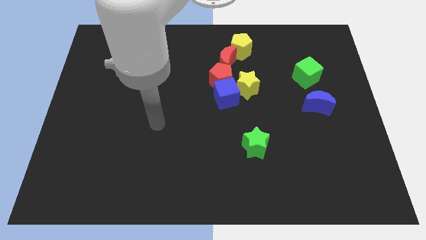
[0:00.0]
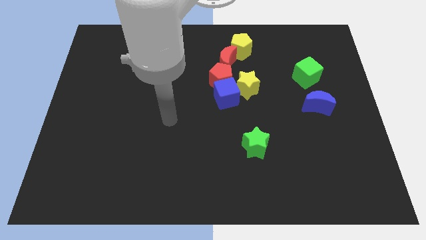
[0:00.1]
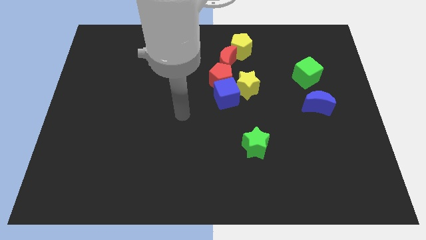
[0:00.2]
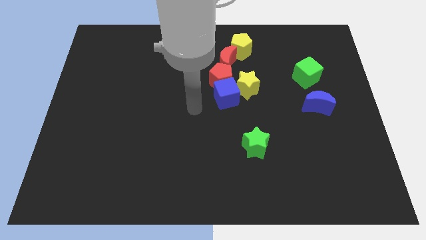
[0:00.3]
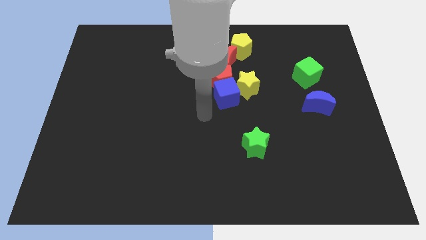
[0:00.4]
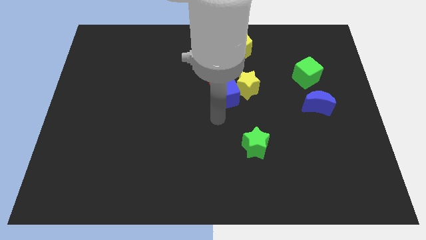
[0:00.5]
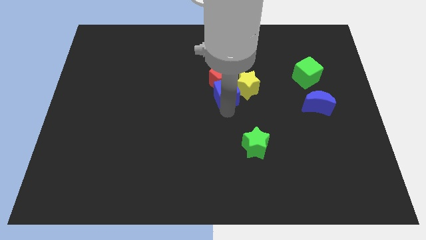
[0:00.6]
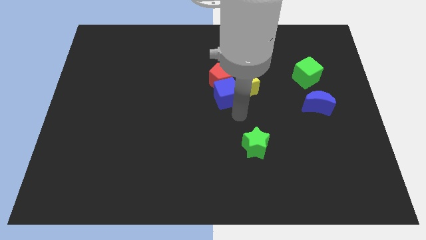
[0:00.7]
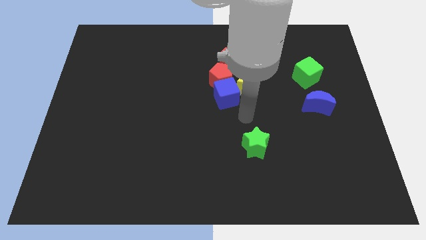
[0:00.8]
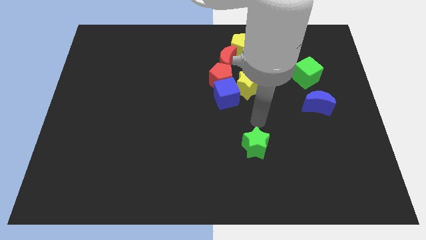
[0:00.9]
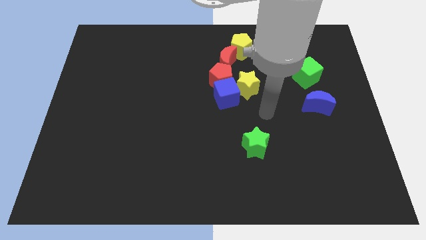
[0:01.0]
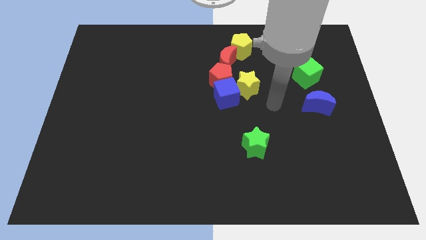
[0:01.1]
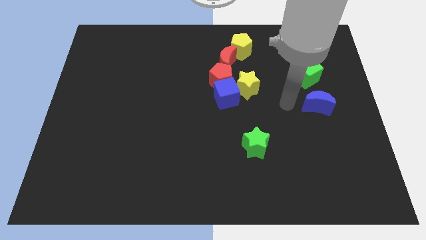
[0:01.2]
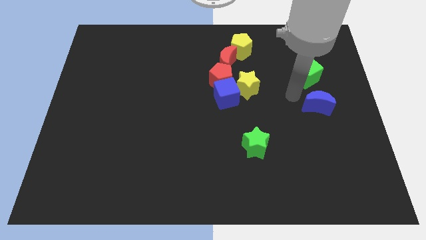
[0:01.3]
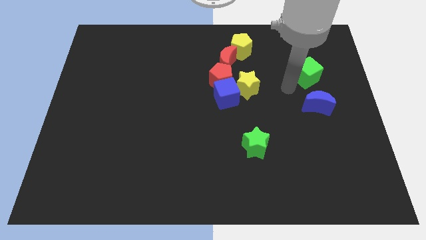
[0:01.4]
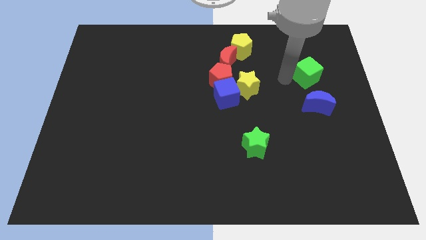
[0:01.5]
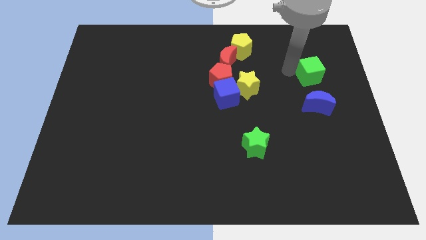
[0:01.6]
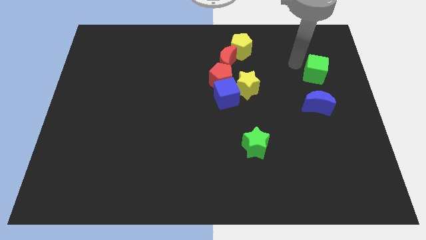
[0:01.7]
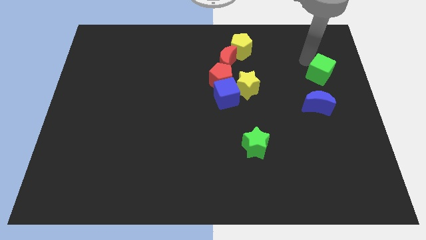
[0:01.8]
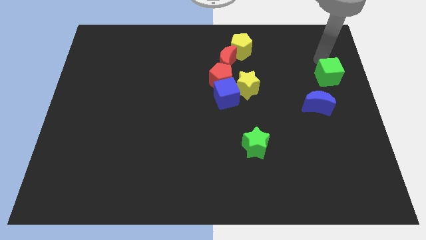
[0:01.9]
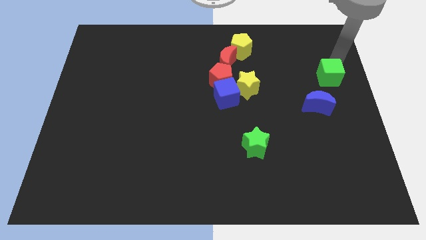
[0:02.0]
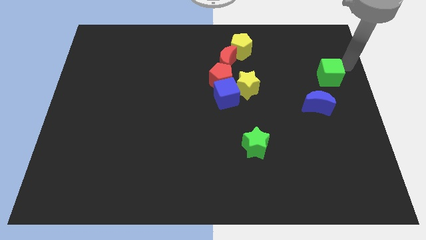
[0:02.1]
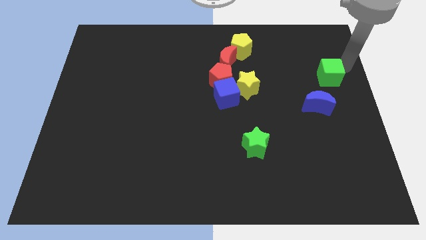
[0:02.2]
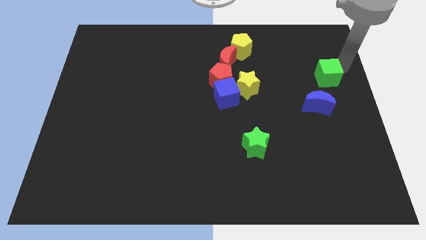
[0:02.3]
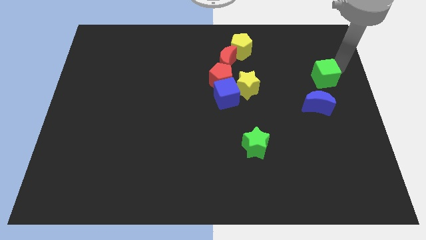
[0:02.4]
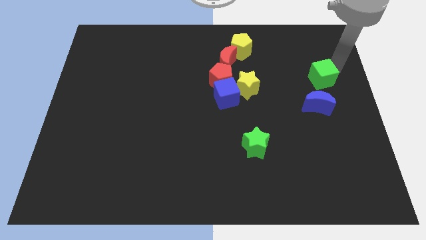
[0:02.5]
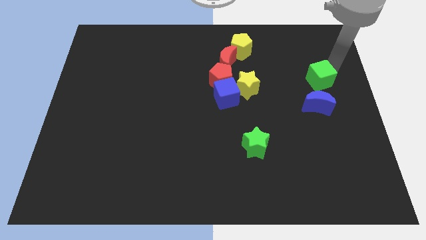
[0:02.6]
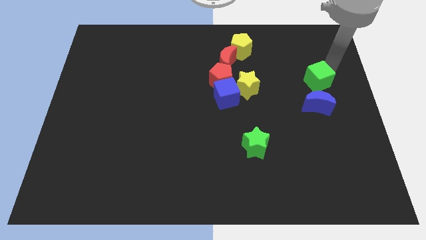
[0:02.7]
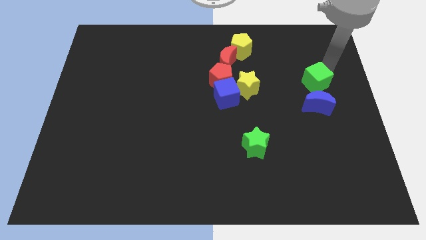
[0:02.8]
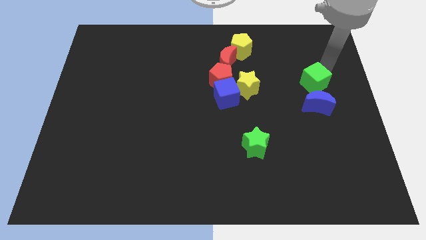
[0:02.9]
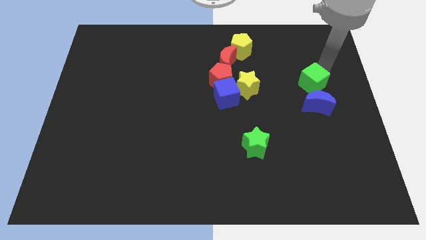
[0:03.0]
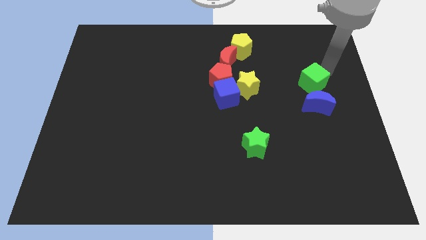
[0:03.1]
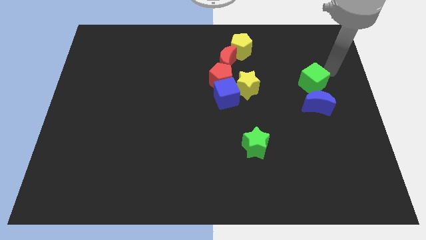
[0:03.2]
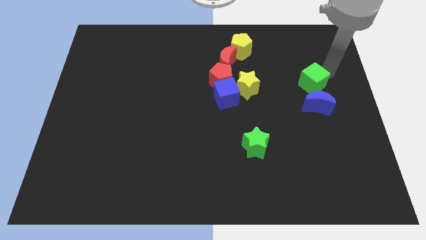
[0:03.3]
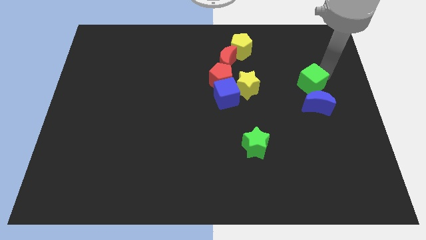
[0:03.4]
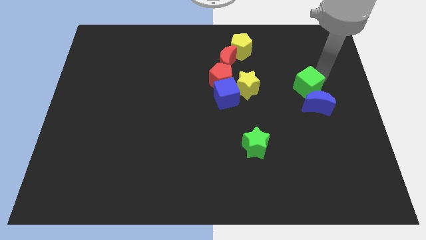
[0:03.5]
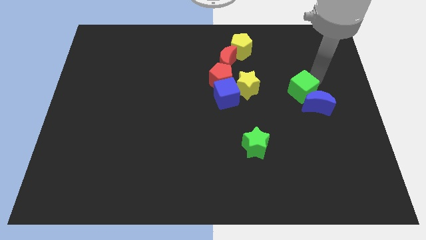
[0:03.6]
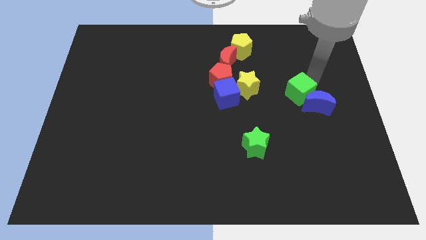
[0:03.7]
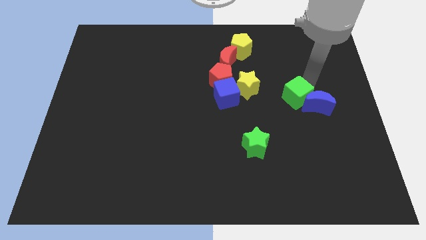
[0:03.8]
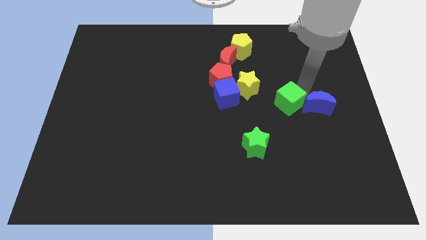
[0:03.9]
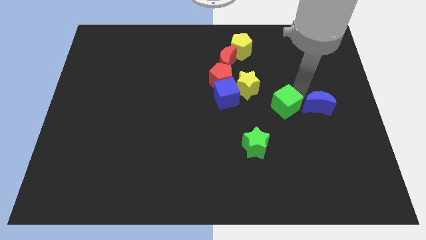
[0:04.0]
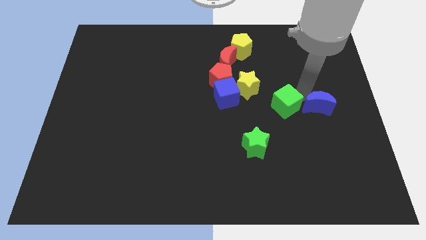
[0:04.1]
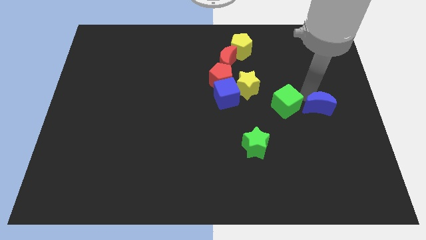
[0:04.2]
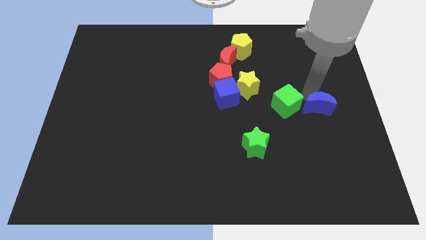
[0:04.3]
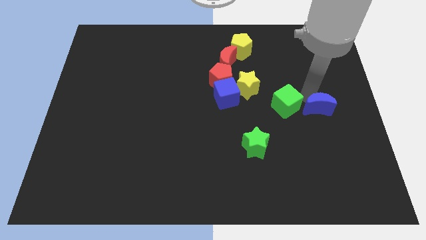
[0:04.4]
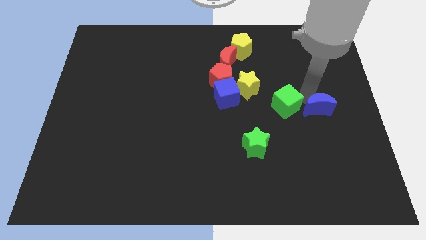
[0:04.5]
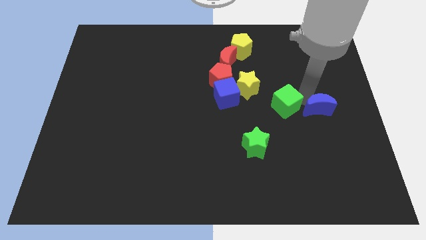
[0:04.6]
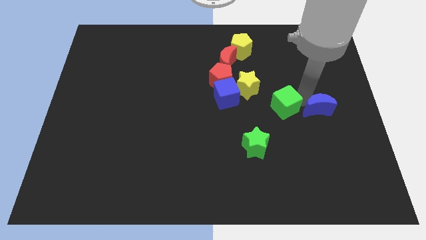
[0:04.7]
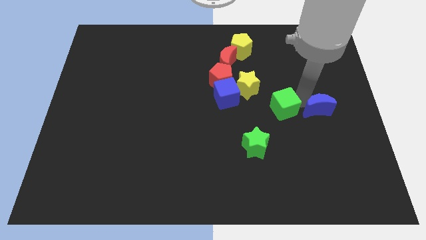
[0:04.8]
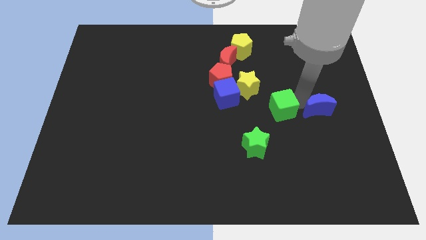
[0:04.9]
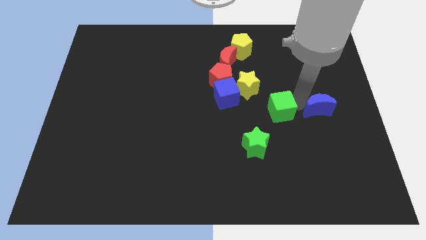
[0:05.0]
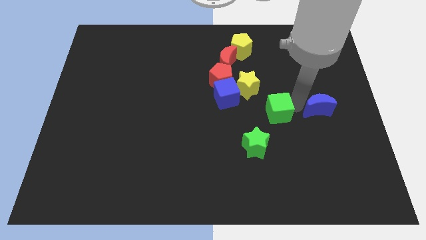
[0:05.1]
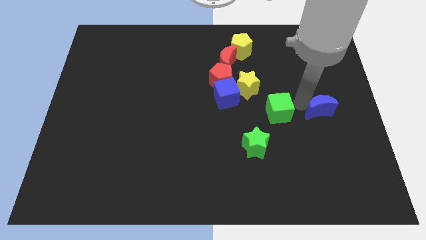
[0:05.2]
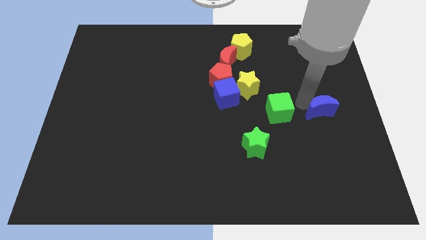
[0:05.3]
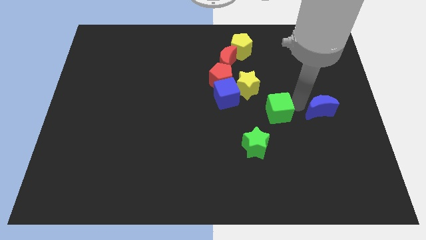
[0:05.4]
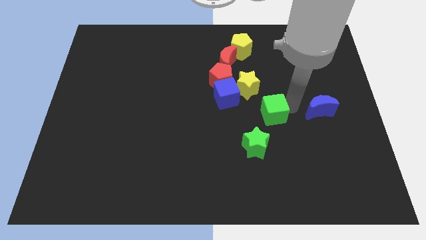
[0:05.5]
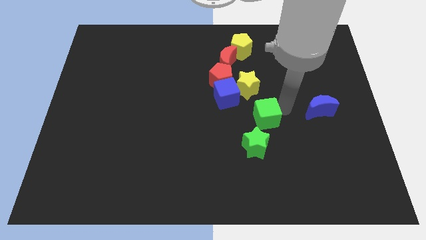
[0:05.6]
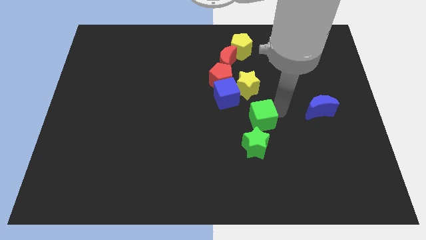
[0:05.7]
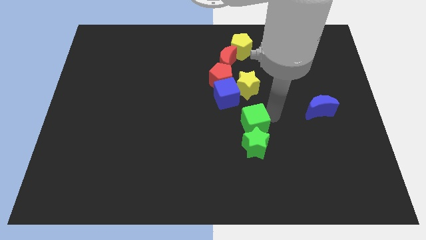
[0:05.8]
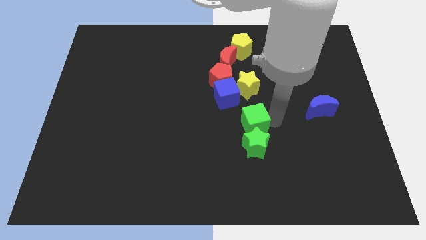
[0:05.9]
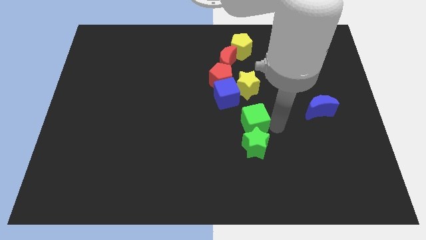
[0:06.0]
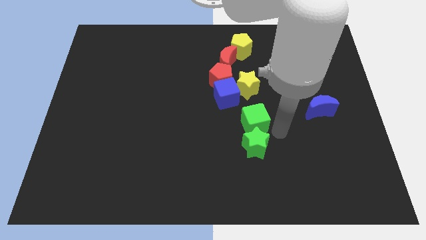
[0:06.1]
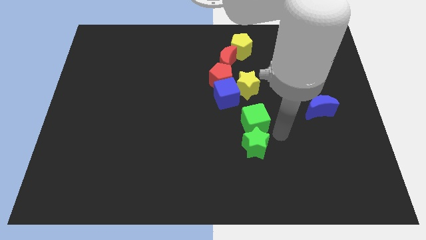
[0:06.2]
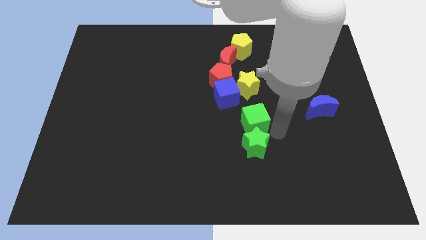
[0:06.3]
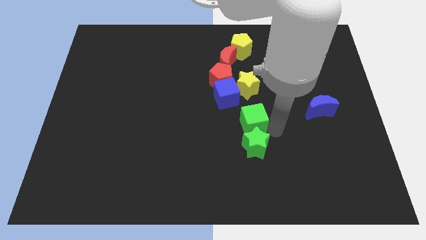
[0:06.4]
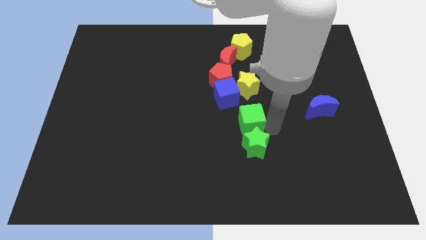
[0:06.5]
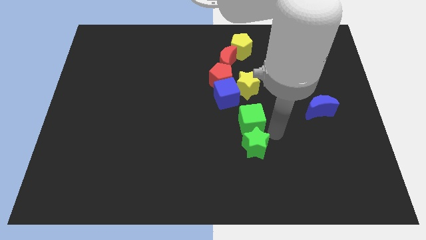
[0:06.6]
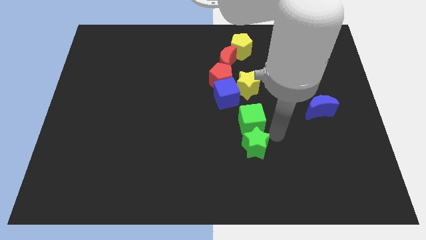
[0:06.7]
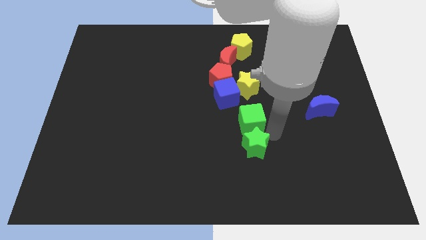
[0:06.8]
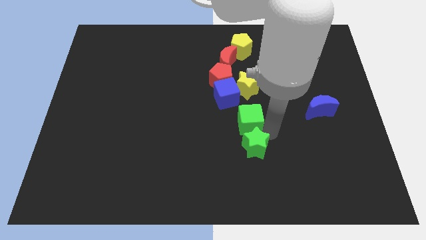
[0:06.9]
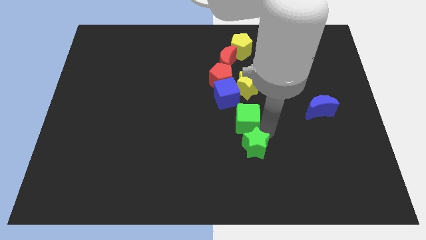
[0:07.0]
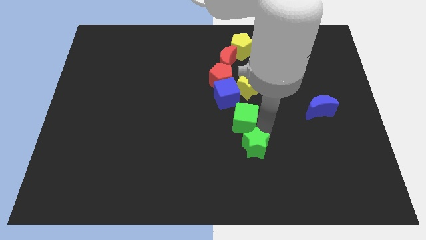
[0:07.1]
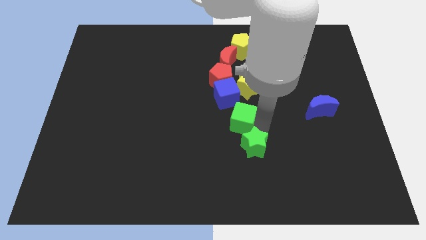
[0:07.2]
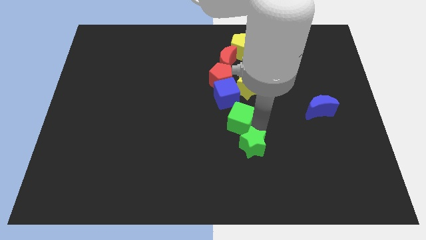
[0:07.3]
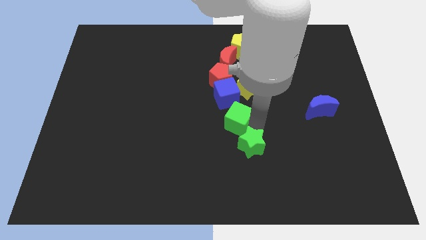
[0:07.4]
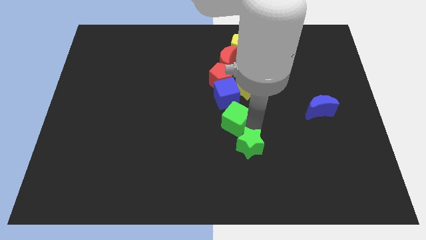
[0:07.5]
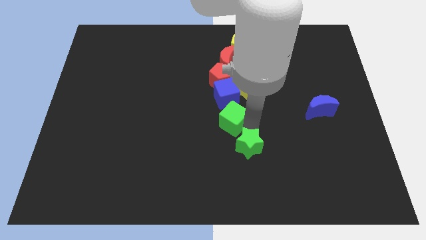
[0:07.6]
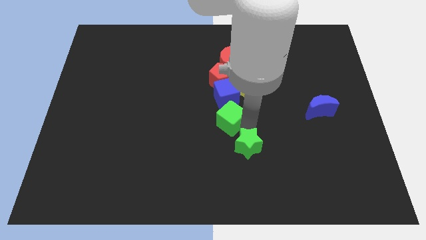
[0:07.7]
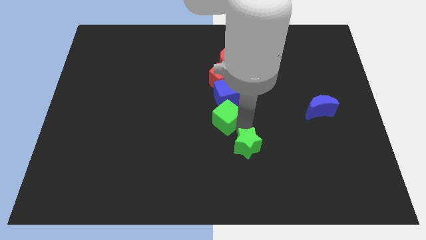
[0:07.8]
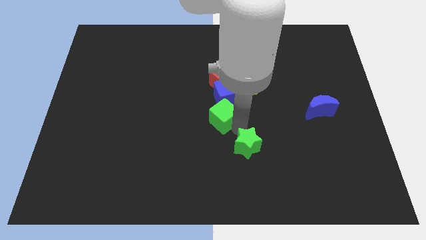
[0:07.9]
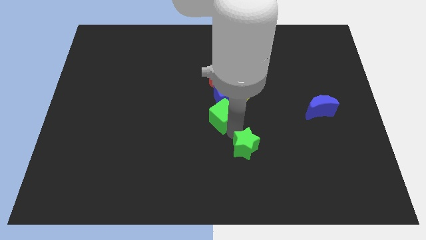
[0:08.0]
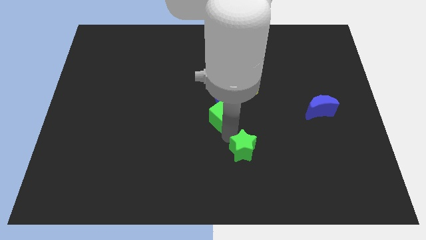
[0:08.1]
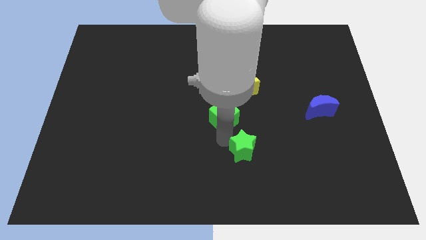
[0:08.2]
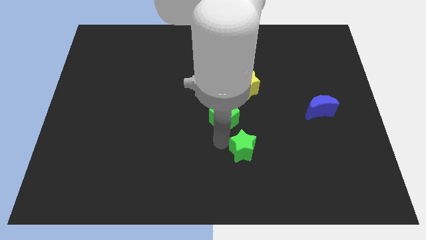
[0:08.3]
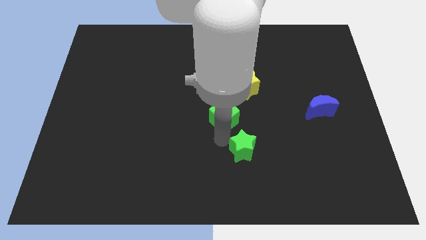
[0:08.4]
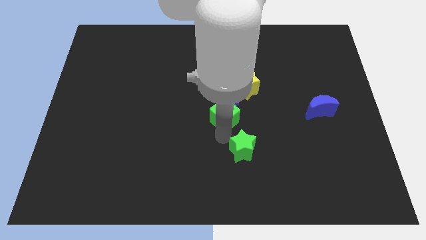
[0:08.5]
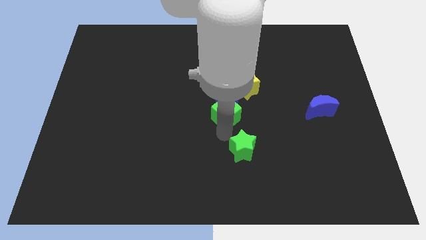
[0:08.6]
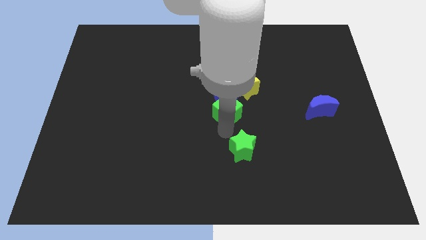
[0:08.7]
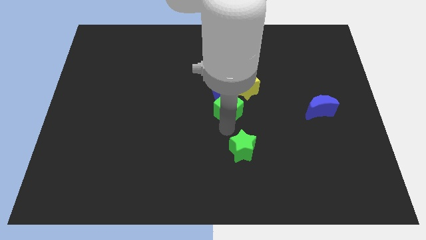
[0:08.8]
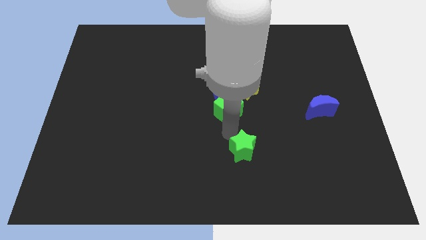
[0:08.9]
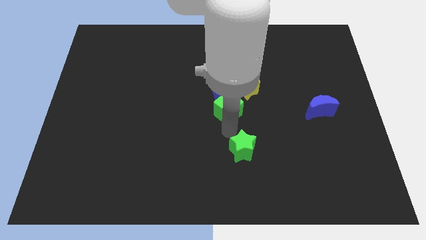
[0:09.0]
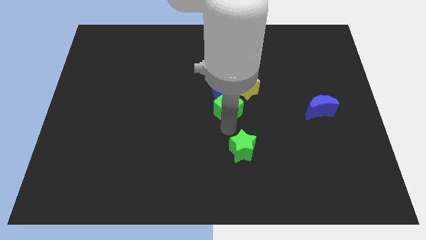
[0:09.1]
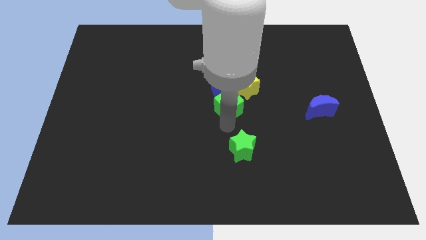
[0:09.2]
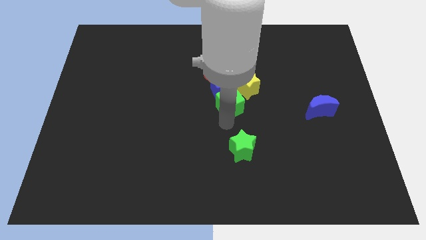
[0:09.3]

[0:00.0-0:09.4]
push the green cube below the red moon
